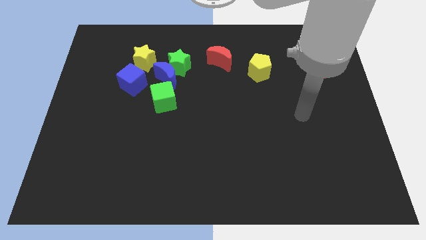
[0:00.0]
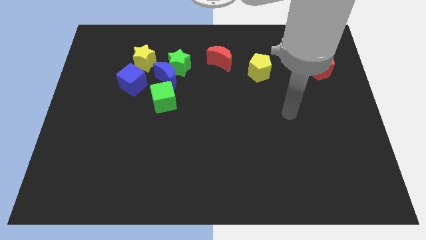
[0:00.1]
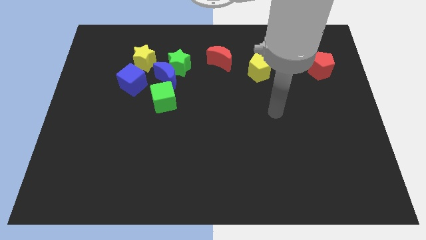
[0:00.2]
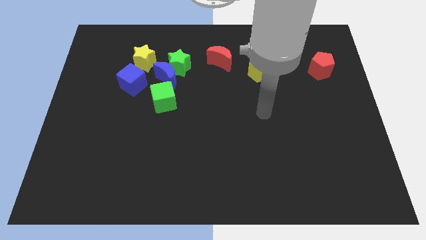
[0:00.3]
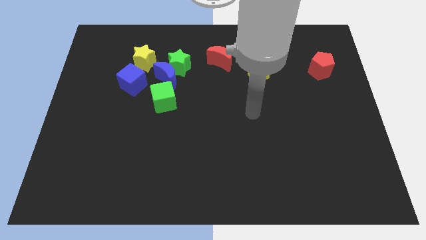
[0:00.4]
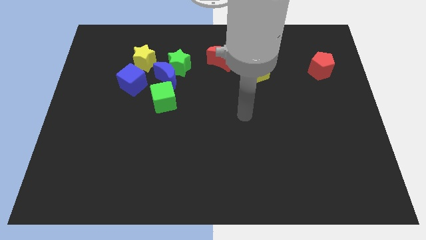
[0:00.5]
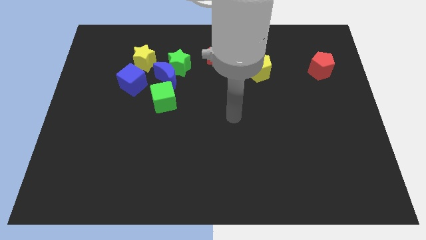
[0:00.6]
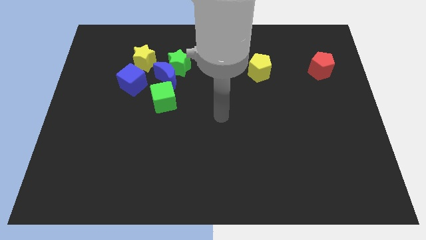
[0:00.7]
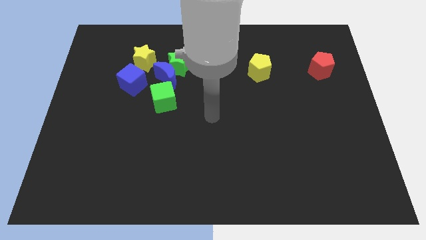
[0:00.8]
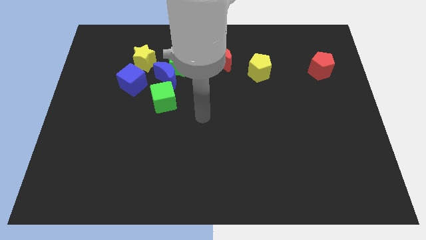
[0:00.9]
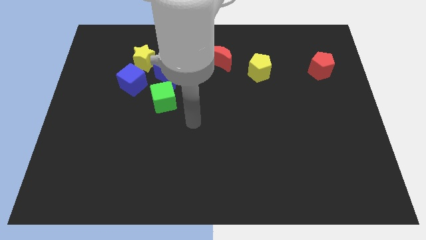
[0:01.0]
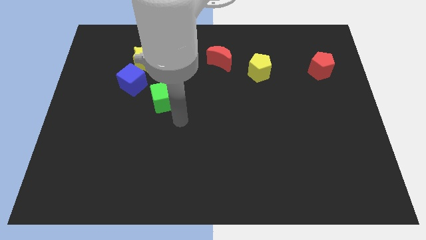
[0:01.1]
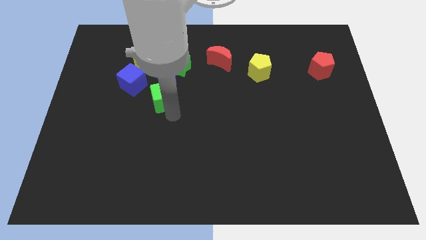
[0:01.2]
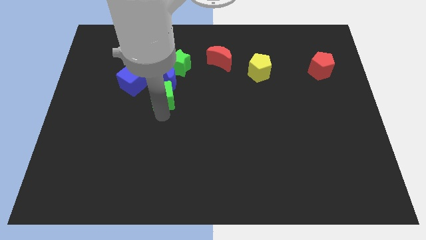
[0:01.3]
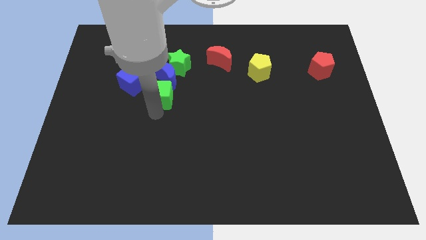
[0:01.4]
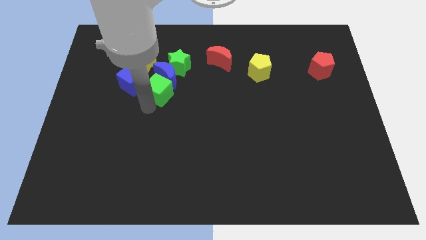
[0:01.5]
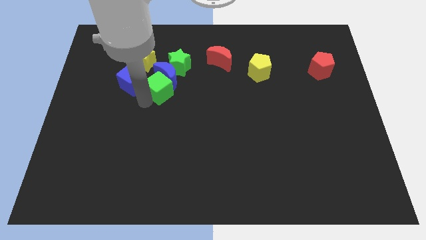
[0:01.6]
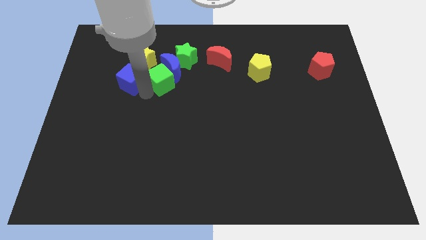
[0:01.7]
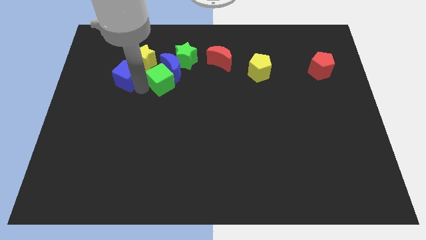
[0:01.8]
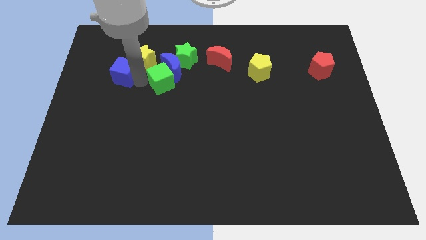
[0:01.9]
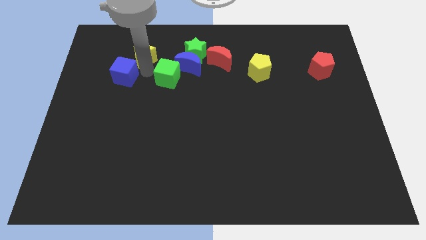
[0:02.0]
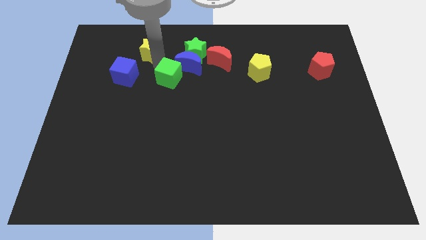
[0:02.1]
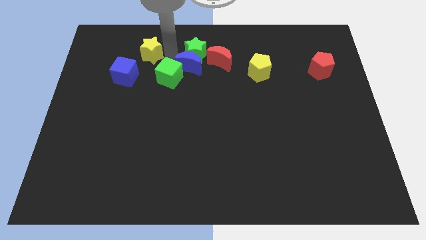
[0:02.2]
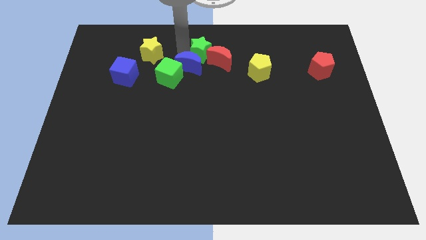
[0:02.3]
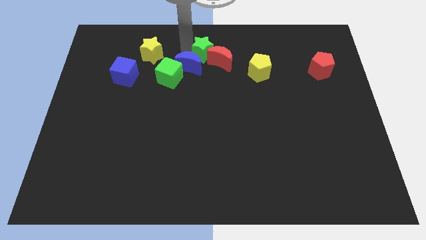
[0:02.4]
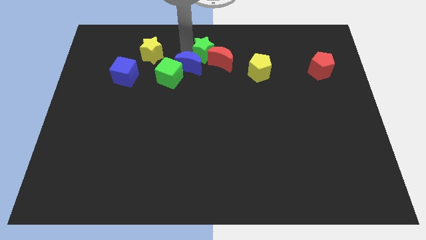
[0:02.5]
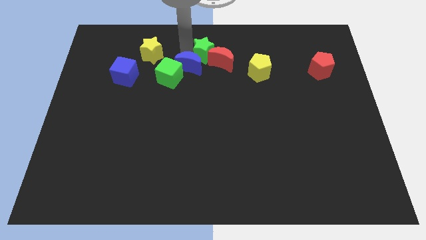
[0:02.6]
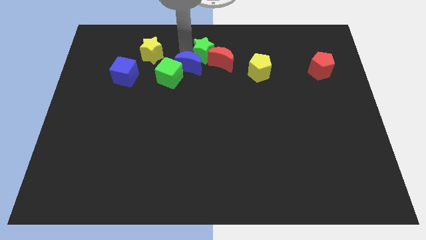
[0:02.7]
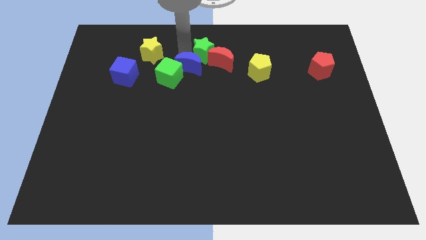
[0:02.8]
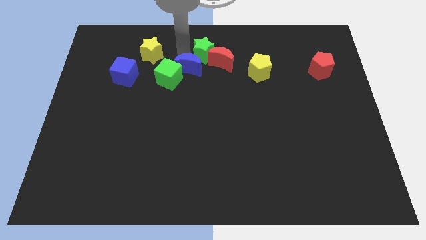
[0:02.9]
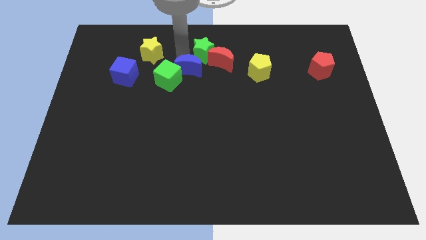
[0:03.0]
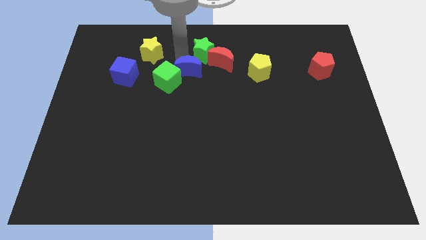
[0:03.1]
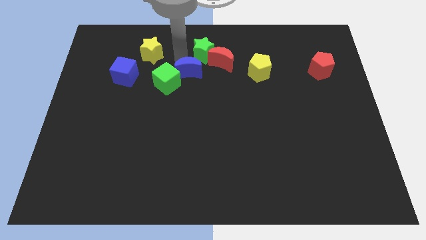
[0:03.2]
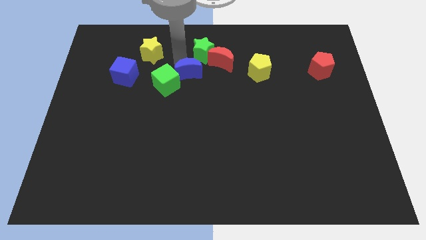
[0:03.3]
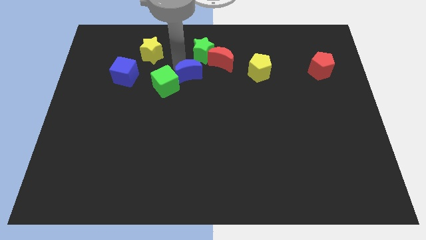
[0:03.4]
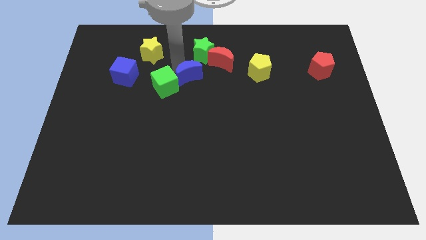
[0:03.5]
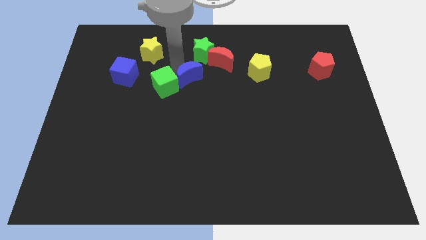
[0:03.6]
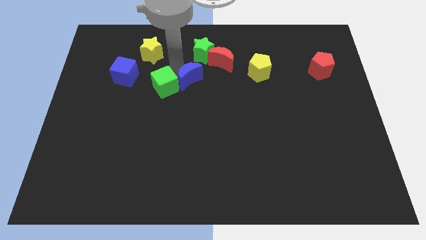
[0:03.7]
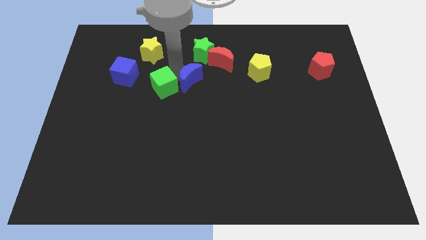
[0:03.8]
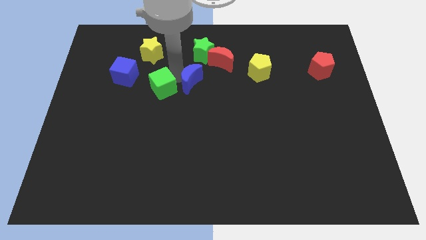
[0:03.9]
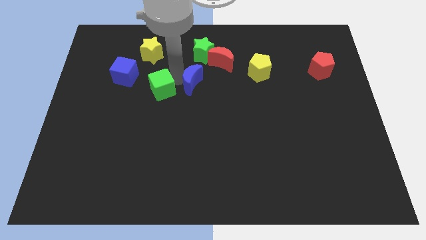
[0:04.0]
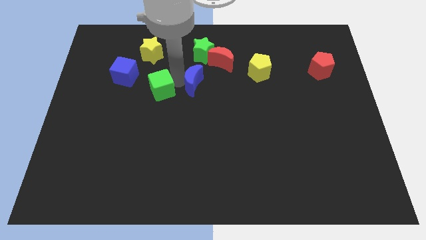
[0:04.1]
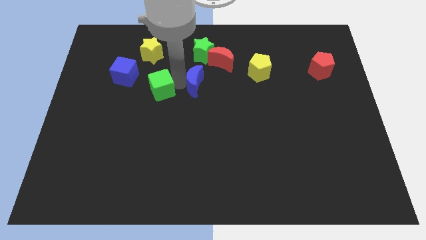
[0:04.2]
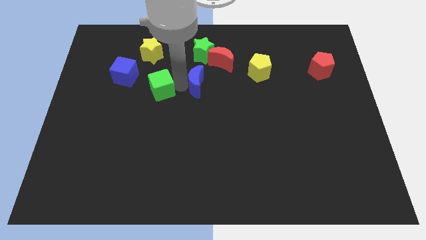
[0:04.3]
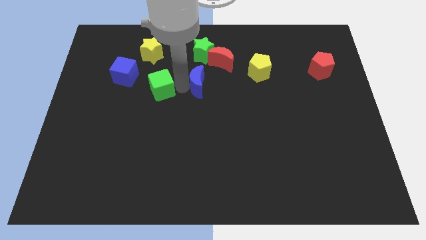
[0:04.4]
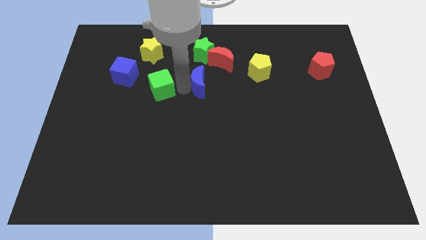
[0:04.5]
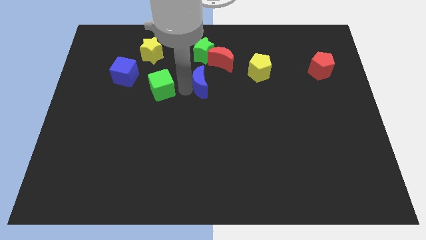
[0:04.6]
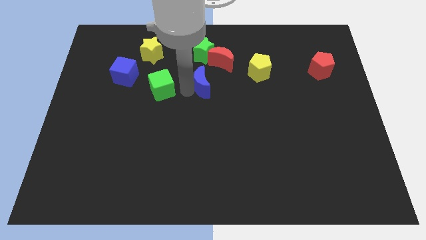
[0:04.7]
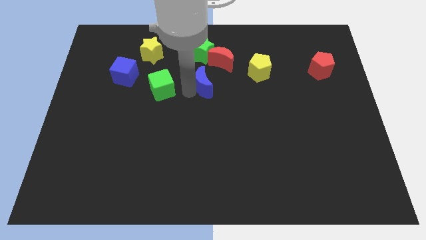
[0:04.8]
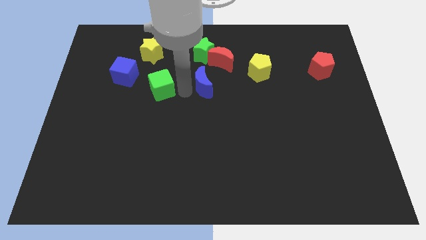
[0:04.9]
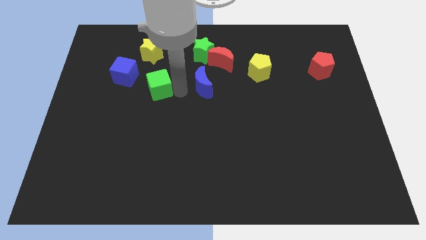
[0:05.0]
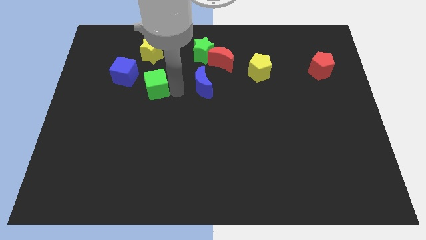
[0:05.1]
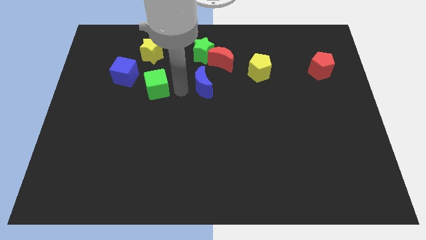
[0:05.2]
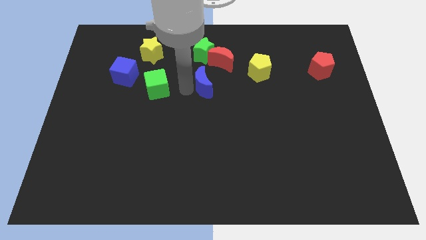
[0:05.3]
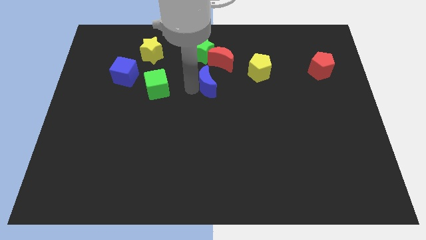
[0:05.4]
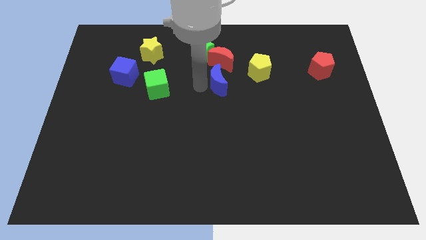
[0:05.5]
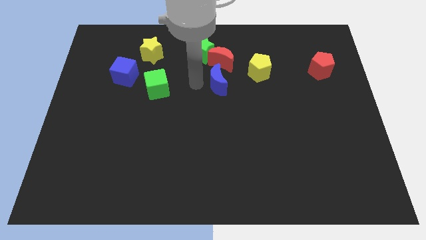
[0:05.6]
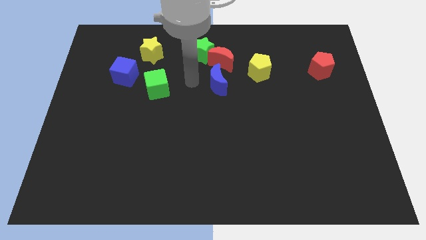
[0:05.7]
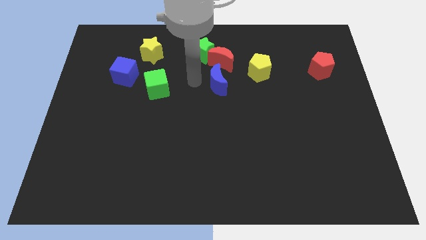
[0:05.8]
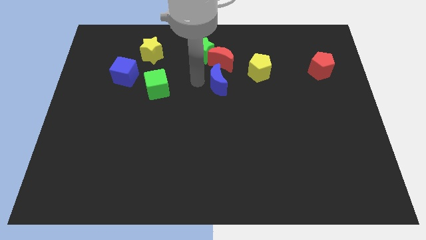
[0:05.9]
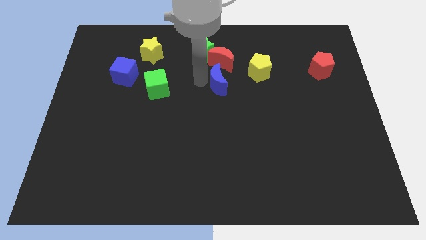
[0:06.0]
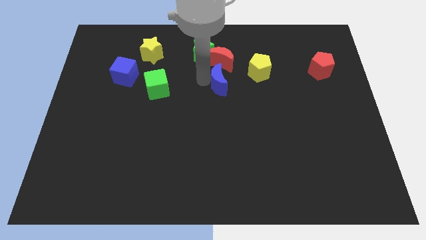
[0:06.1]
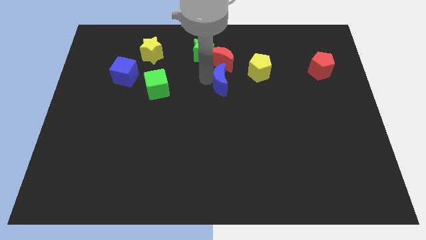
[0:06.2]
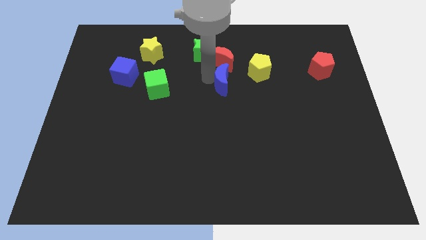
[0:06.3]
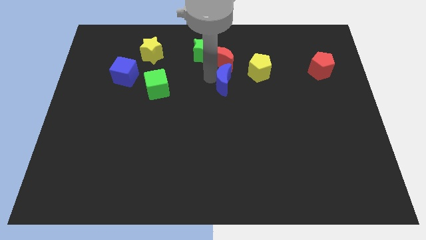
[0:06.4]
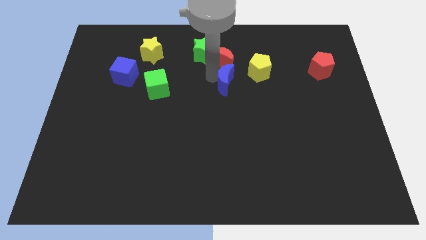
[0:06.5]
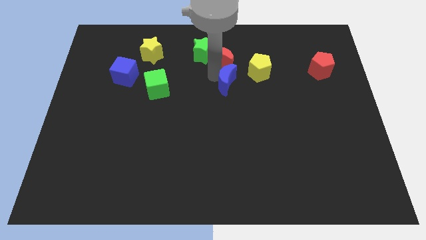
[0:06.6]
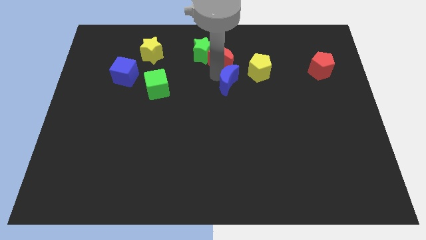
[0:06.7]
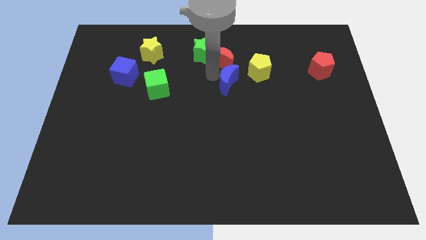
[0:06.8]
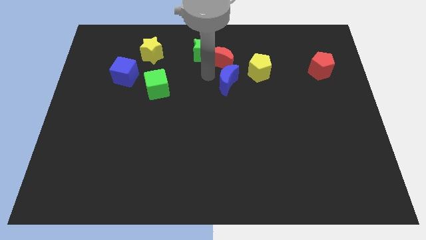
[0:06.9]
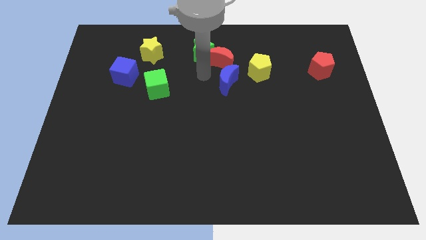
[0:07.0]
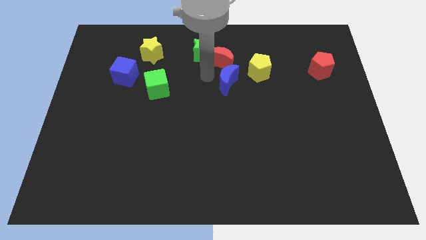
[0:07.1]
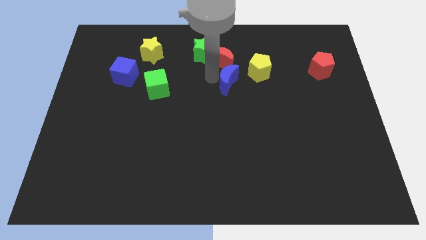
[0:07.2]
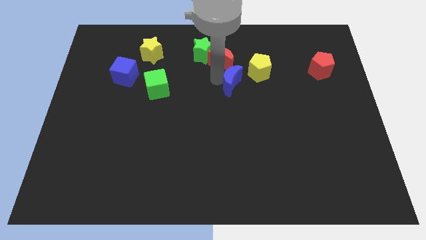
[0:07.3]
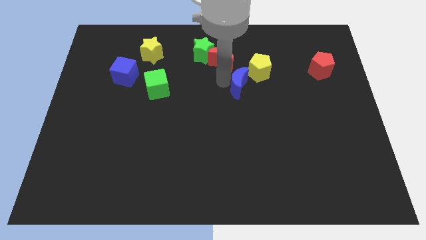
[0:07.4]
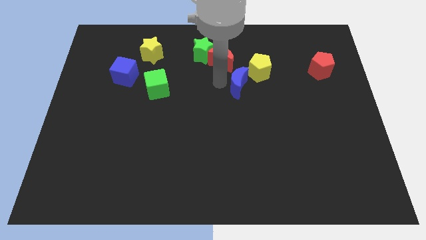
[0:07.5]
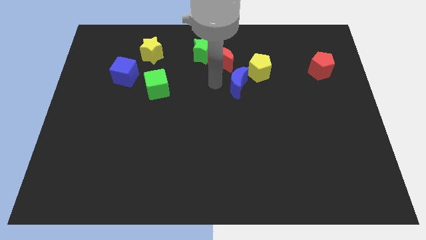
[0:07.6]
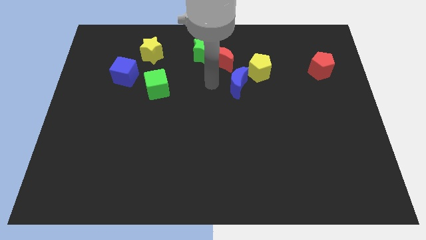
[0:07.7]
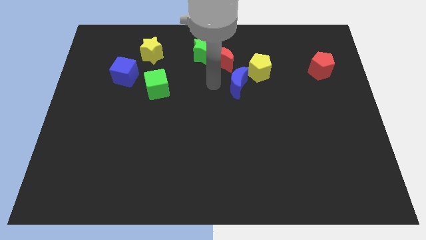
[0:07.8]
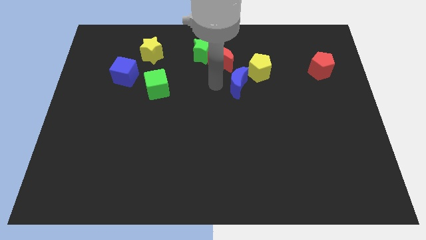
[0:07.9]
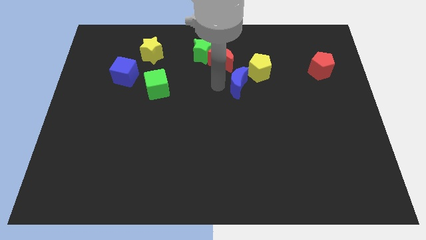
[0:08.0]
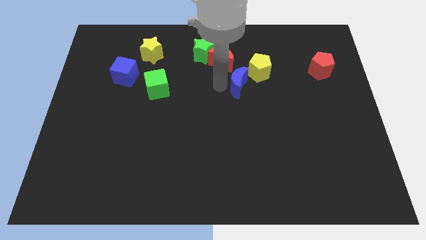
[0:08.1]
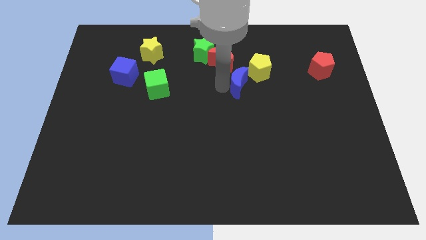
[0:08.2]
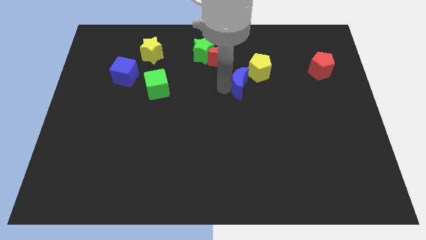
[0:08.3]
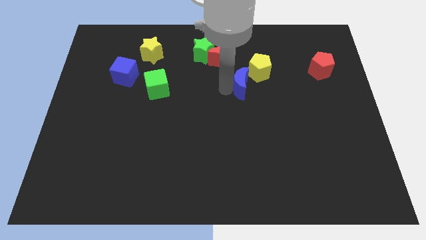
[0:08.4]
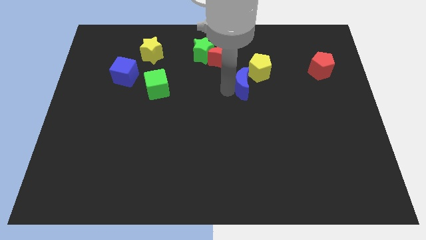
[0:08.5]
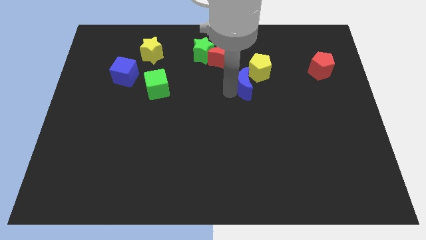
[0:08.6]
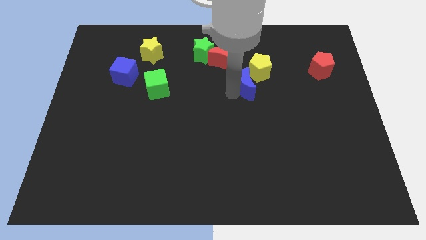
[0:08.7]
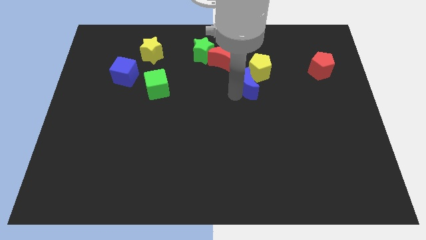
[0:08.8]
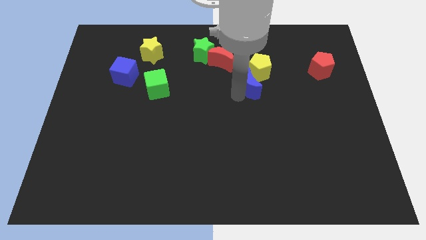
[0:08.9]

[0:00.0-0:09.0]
push the blue moon right
